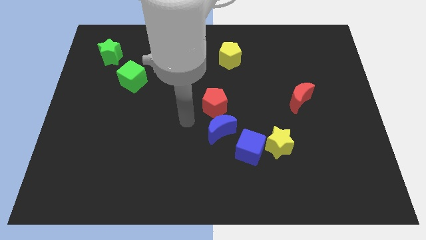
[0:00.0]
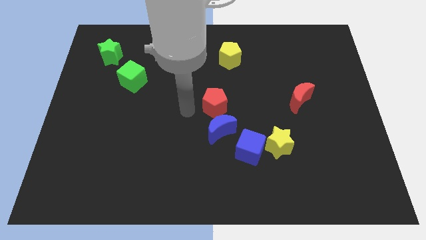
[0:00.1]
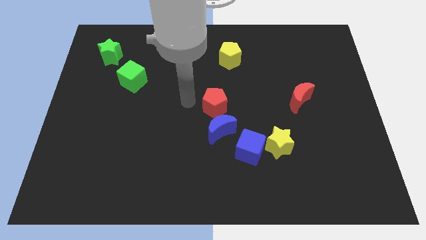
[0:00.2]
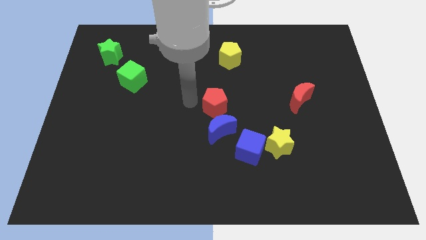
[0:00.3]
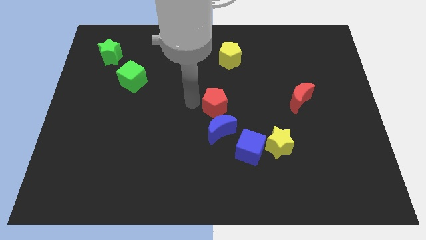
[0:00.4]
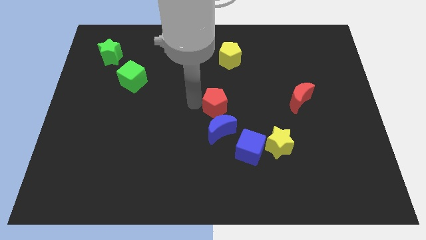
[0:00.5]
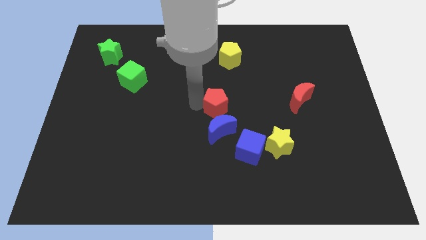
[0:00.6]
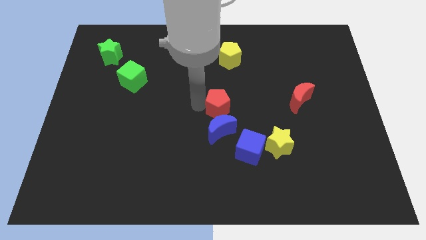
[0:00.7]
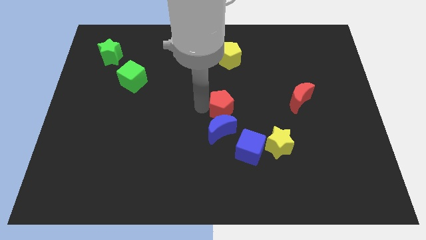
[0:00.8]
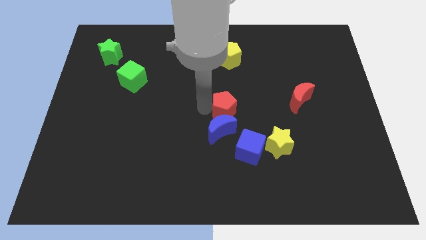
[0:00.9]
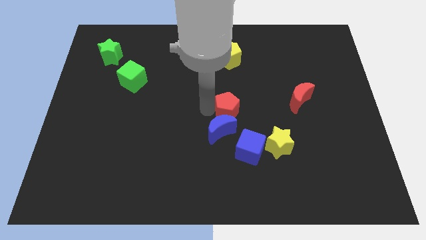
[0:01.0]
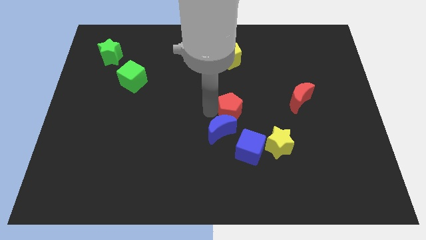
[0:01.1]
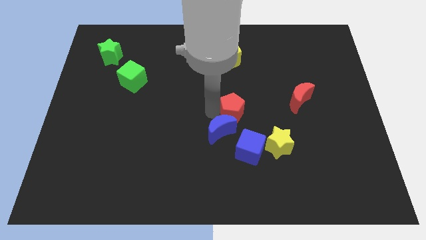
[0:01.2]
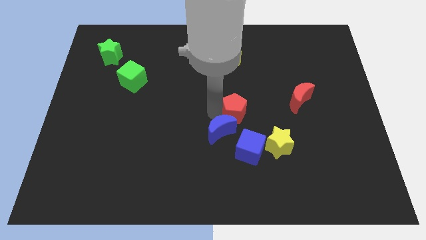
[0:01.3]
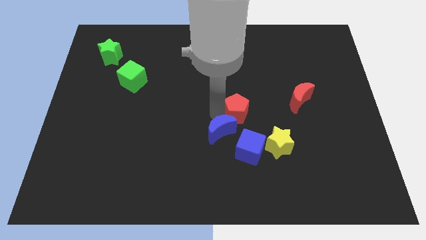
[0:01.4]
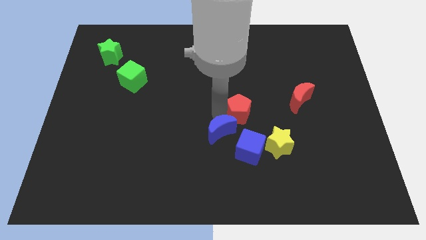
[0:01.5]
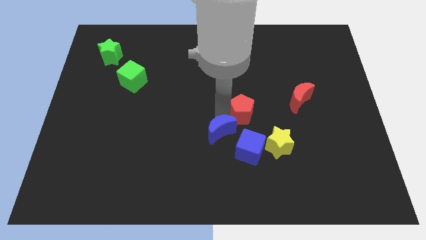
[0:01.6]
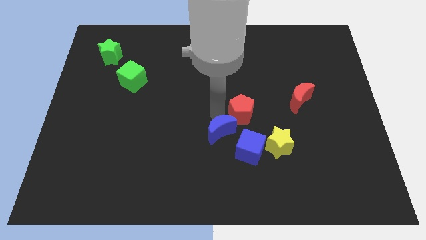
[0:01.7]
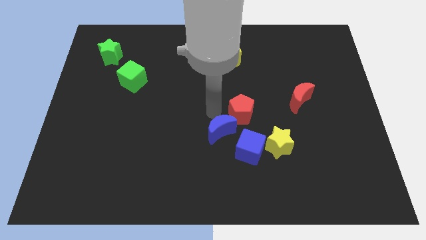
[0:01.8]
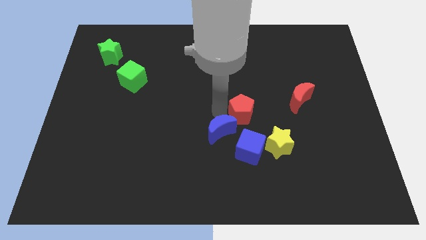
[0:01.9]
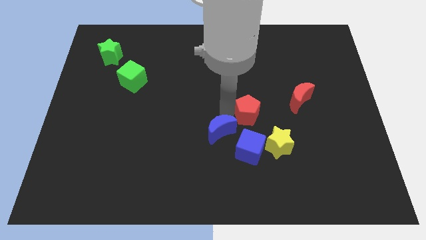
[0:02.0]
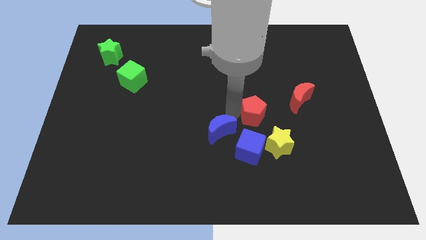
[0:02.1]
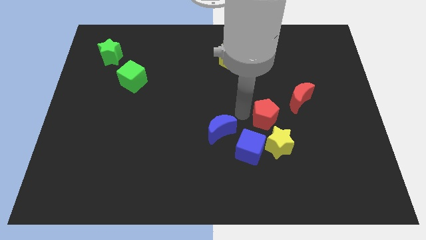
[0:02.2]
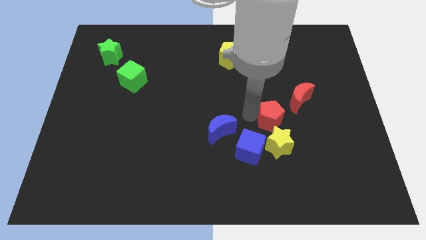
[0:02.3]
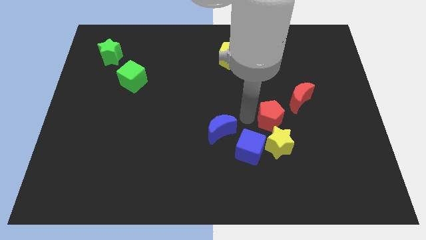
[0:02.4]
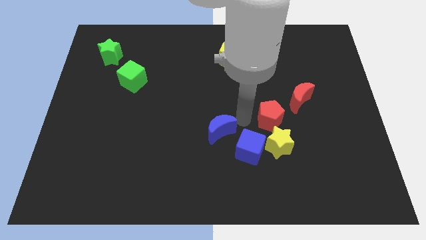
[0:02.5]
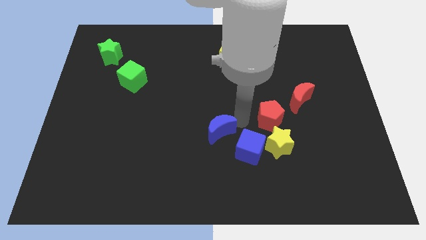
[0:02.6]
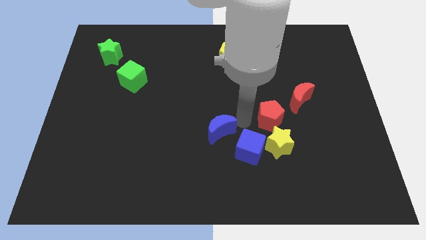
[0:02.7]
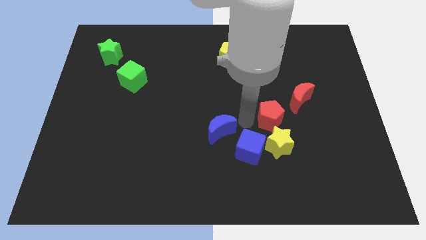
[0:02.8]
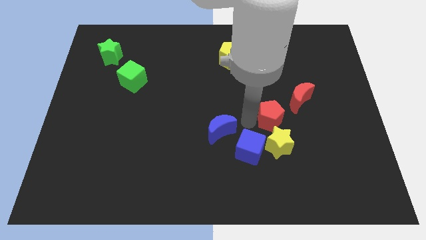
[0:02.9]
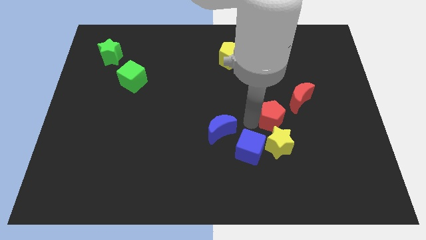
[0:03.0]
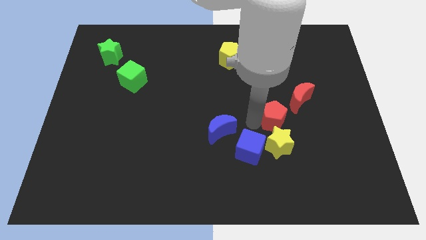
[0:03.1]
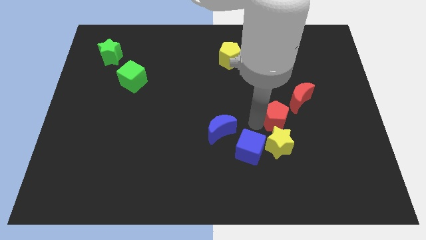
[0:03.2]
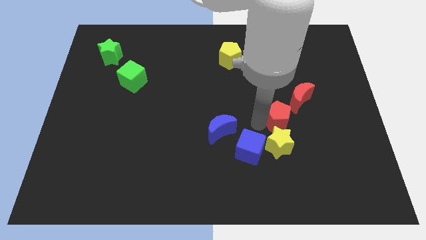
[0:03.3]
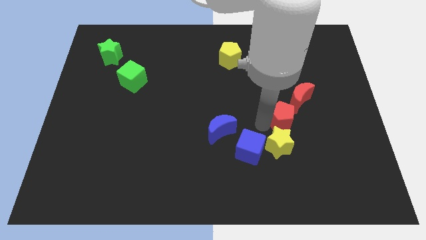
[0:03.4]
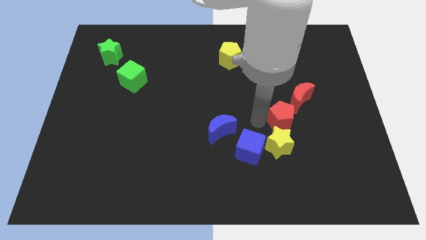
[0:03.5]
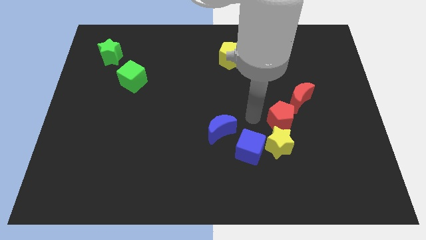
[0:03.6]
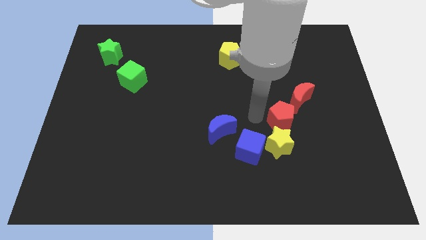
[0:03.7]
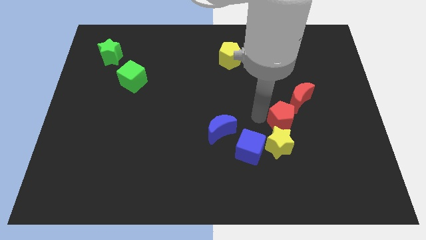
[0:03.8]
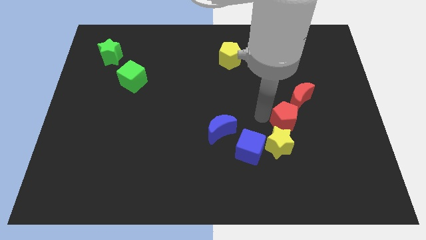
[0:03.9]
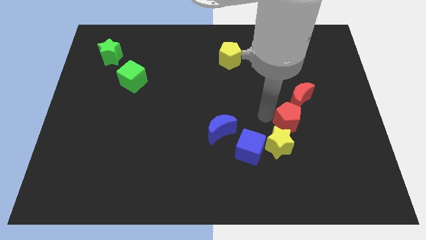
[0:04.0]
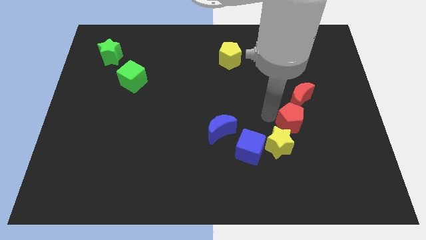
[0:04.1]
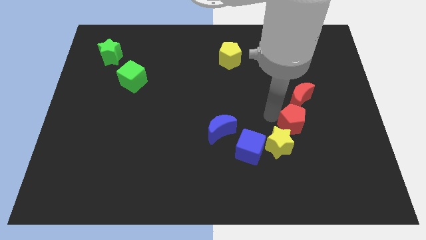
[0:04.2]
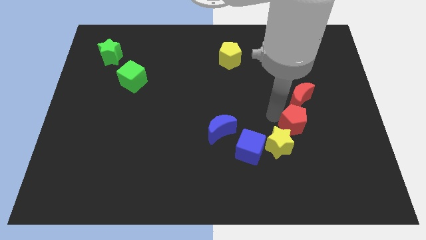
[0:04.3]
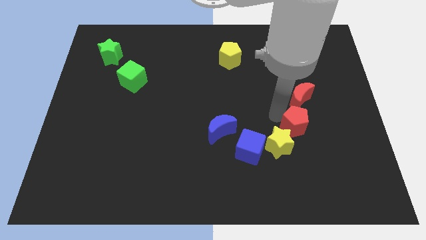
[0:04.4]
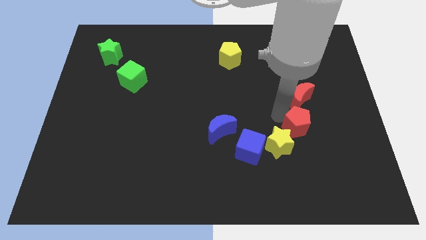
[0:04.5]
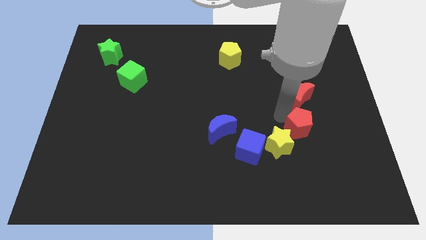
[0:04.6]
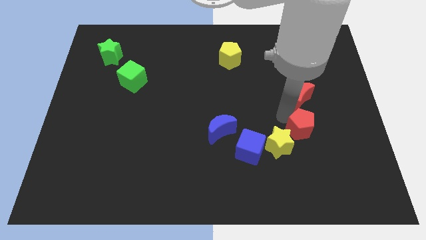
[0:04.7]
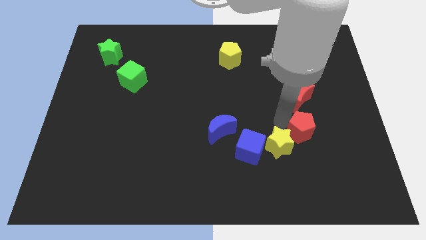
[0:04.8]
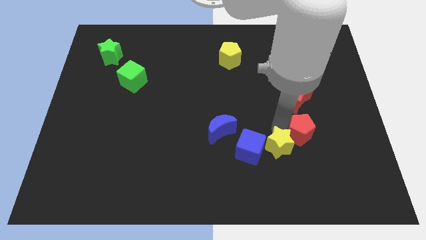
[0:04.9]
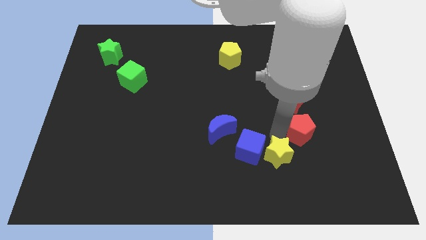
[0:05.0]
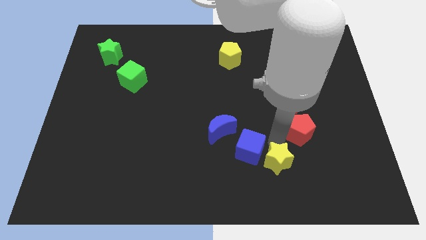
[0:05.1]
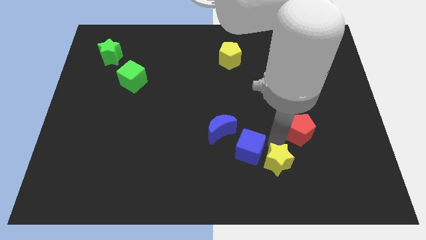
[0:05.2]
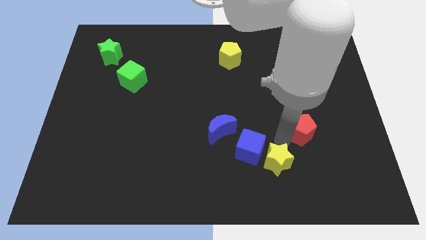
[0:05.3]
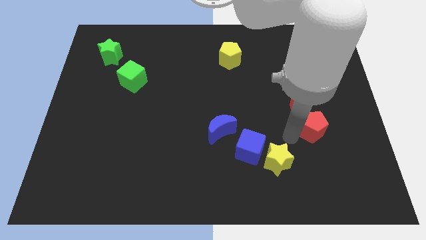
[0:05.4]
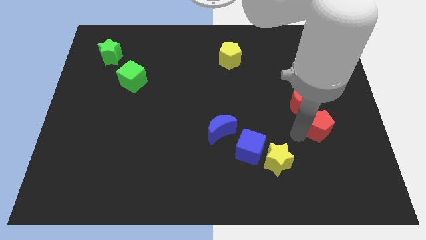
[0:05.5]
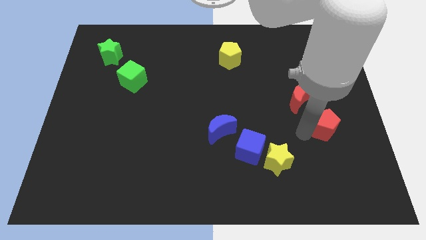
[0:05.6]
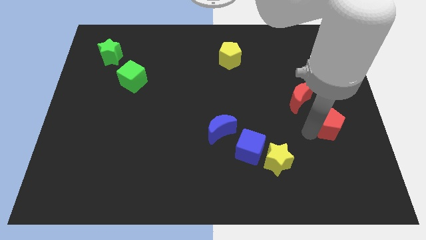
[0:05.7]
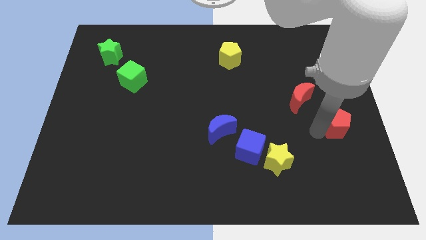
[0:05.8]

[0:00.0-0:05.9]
put the red pentagon to the center right
